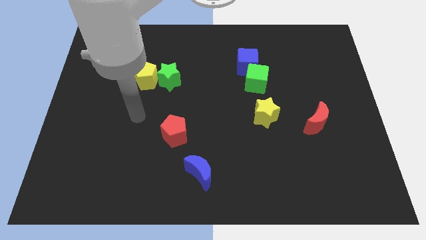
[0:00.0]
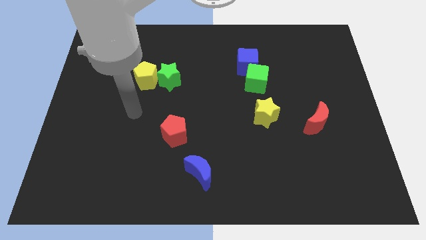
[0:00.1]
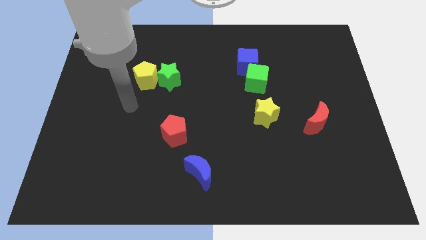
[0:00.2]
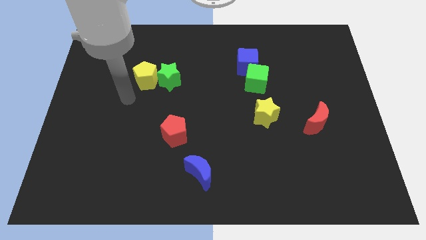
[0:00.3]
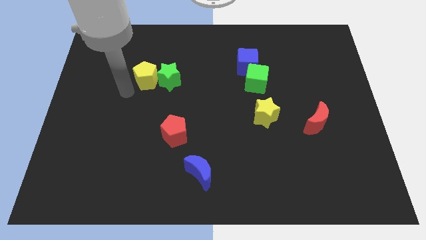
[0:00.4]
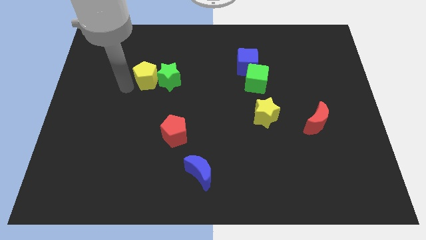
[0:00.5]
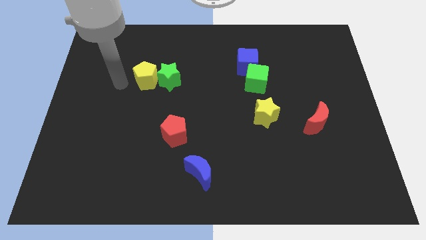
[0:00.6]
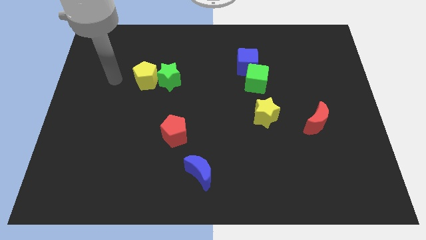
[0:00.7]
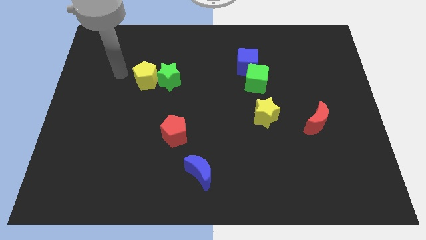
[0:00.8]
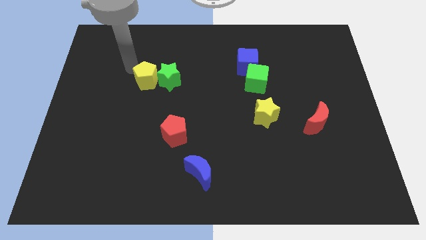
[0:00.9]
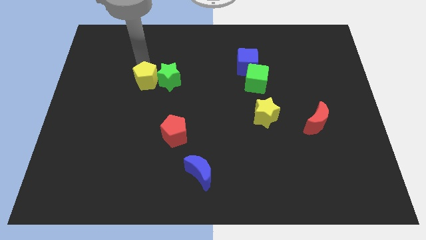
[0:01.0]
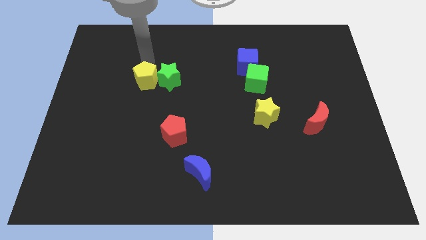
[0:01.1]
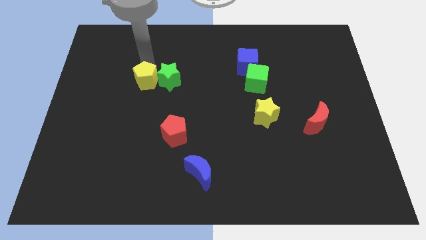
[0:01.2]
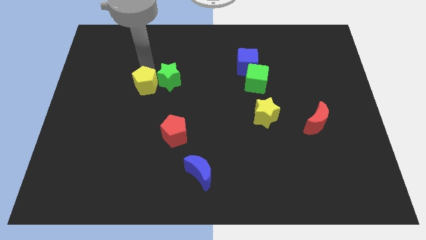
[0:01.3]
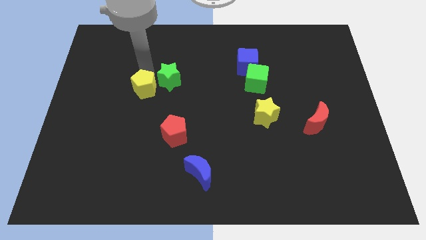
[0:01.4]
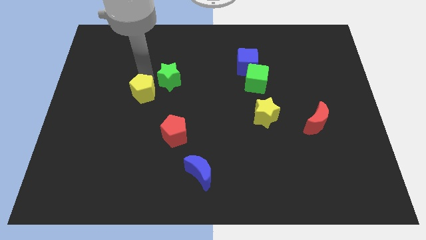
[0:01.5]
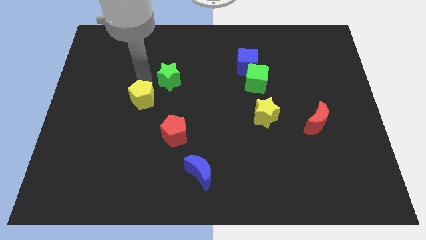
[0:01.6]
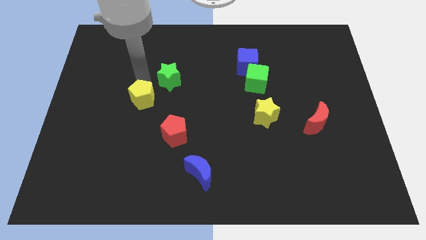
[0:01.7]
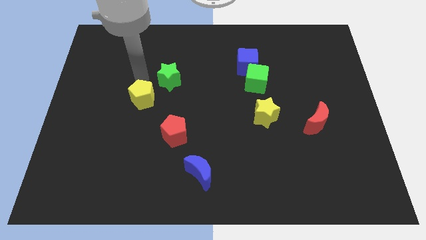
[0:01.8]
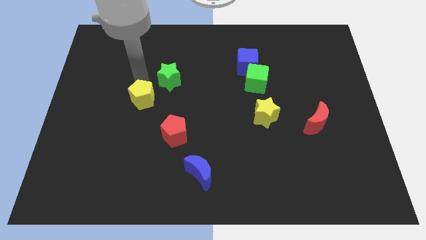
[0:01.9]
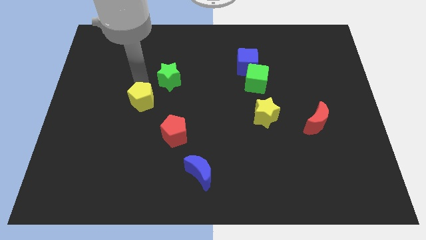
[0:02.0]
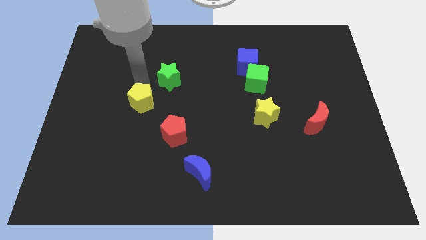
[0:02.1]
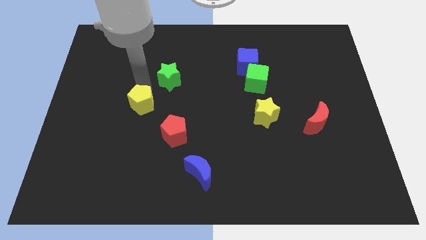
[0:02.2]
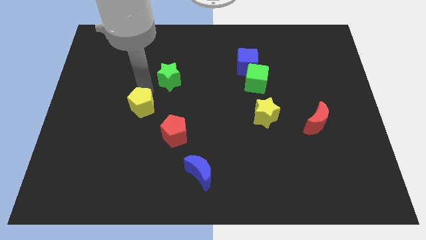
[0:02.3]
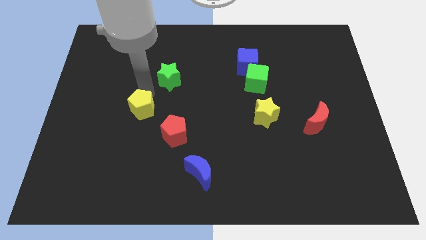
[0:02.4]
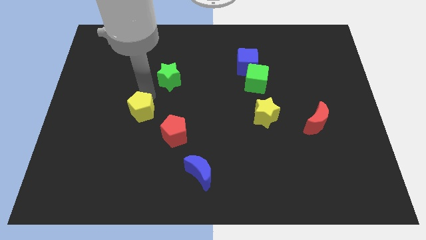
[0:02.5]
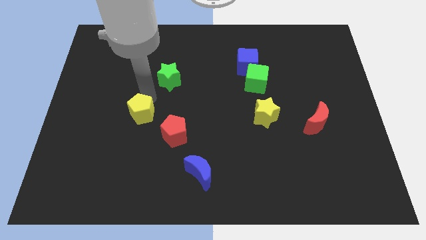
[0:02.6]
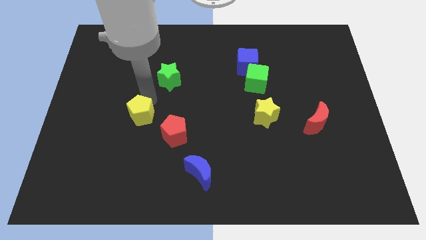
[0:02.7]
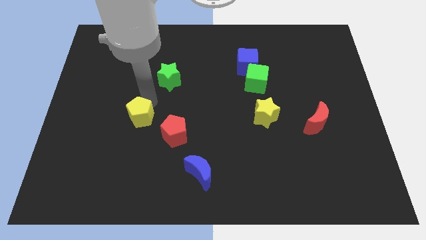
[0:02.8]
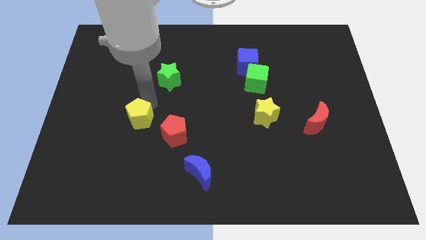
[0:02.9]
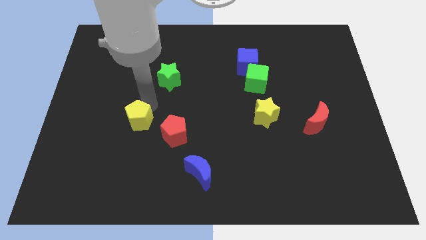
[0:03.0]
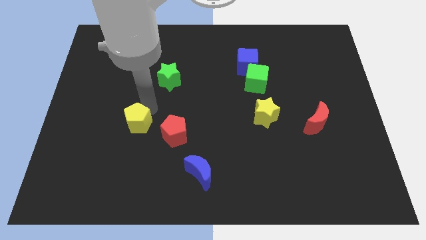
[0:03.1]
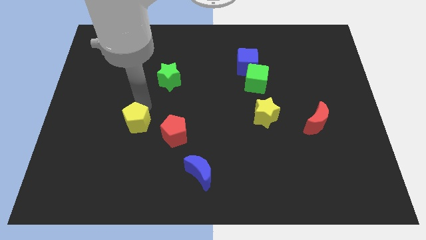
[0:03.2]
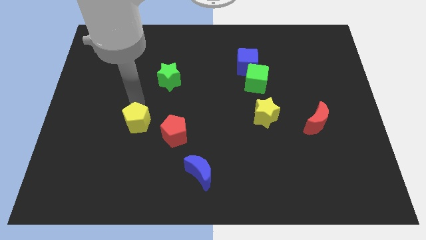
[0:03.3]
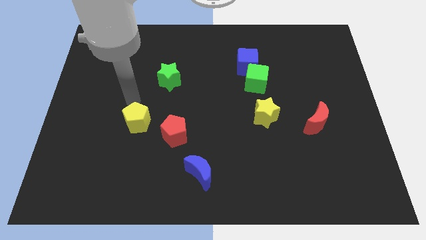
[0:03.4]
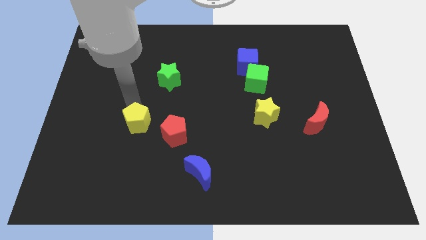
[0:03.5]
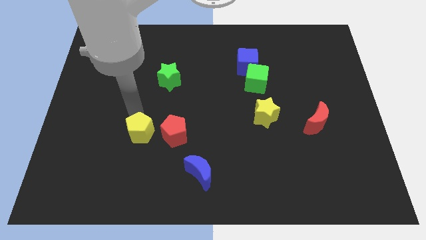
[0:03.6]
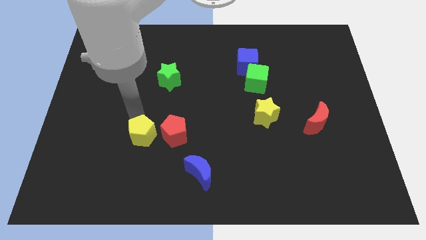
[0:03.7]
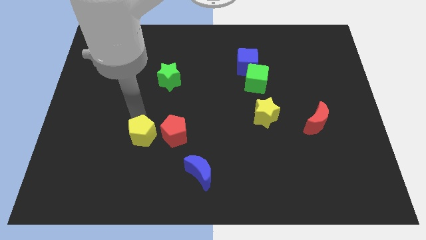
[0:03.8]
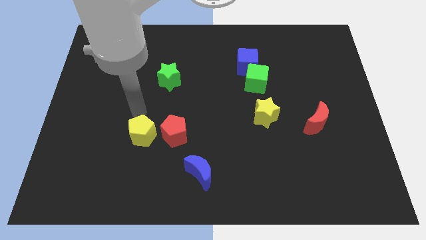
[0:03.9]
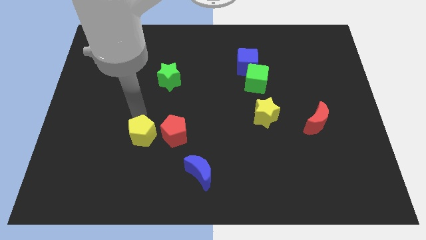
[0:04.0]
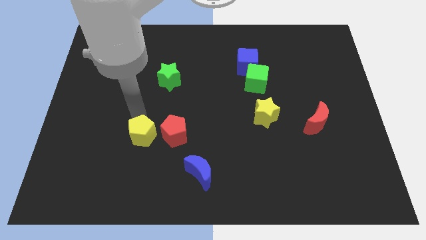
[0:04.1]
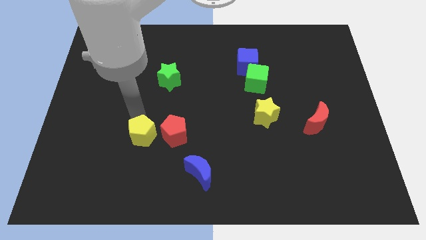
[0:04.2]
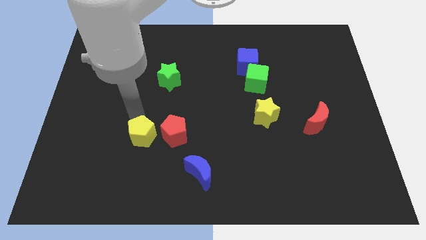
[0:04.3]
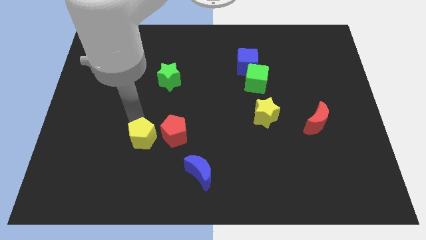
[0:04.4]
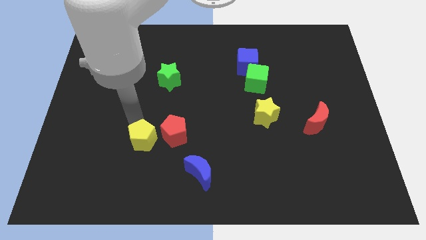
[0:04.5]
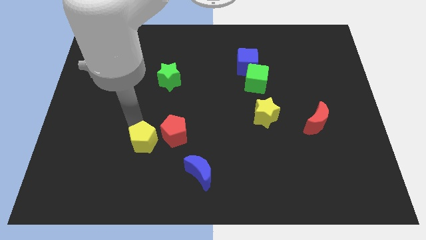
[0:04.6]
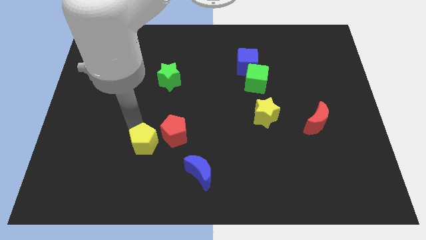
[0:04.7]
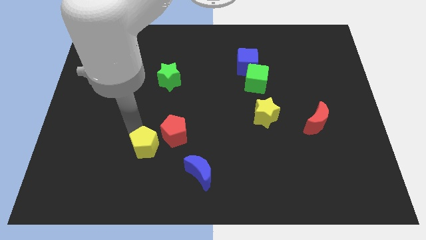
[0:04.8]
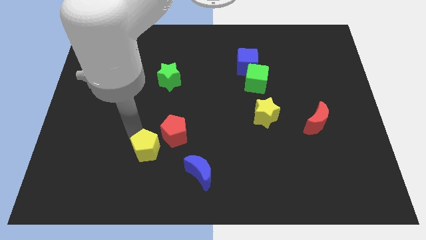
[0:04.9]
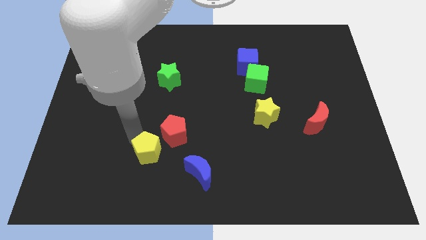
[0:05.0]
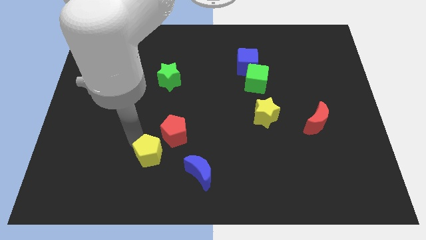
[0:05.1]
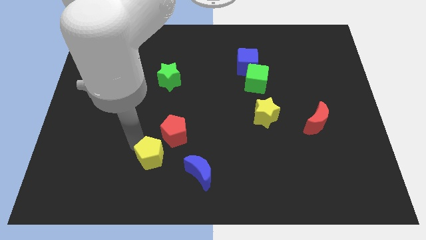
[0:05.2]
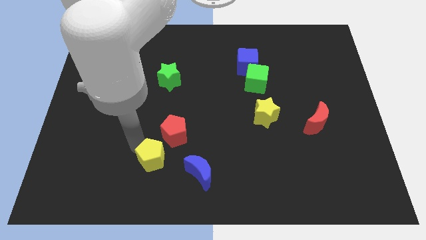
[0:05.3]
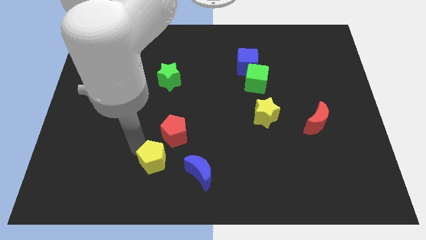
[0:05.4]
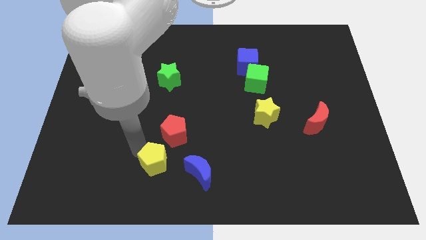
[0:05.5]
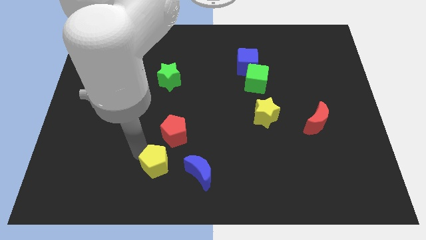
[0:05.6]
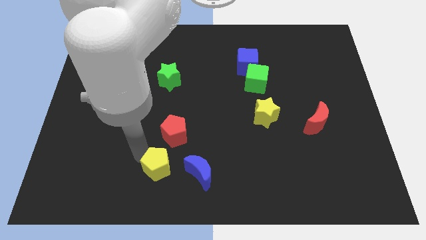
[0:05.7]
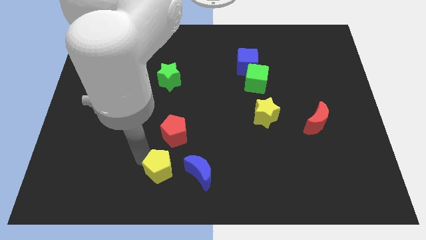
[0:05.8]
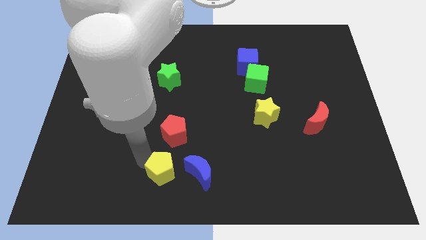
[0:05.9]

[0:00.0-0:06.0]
put the yellow pentagon to the bottom side

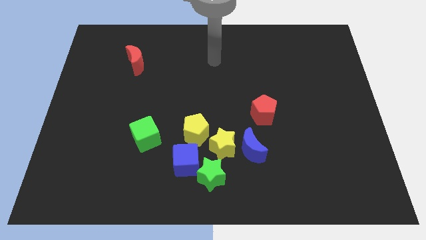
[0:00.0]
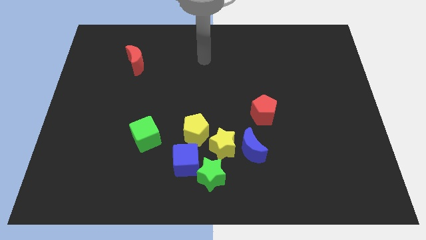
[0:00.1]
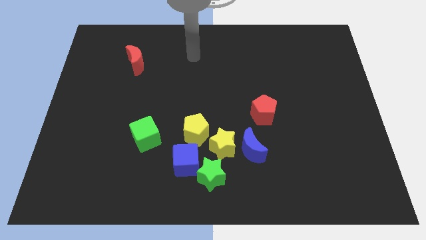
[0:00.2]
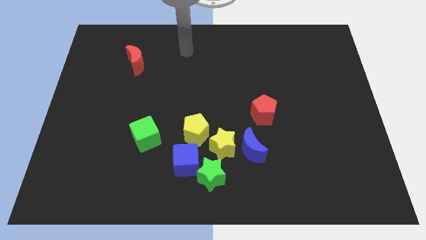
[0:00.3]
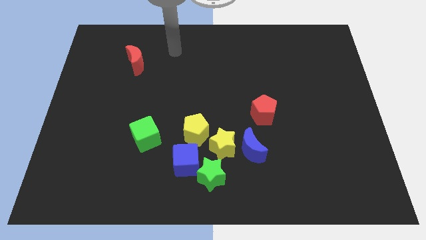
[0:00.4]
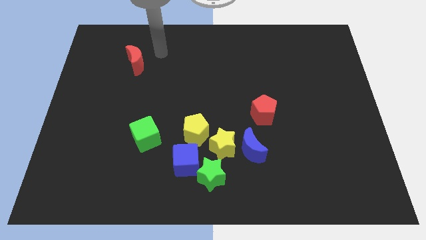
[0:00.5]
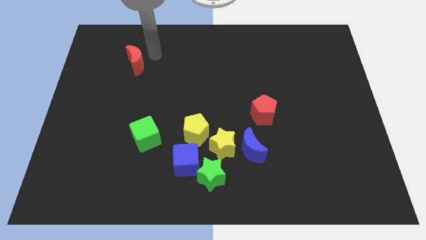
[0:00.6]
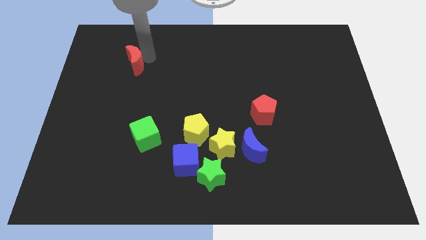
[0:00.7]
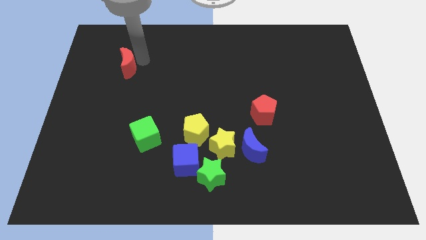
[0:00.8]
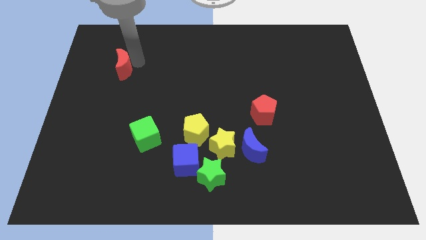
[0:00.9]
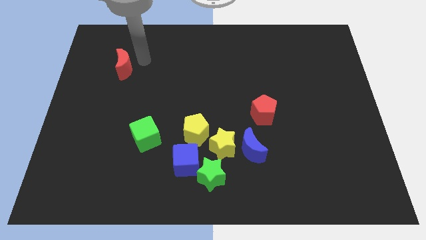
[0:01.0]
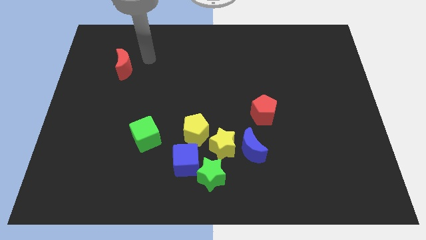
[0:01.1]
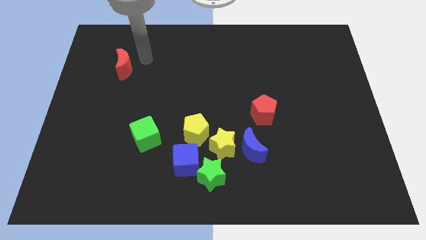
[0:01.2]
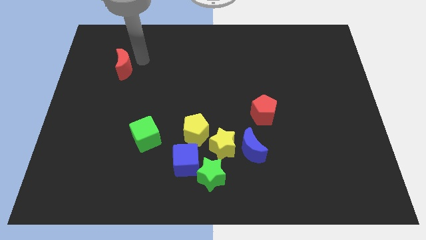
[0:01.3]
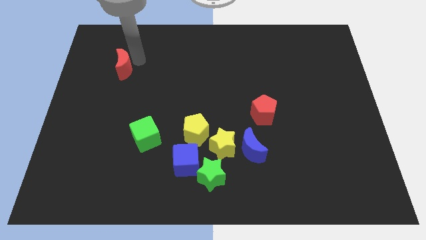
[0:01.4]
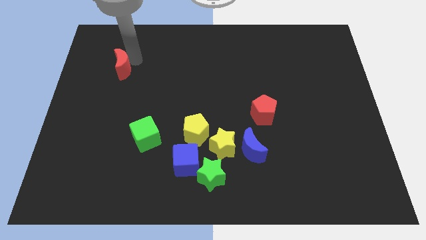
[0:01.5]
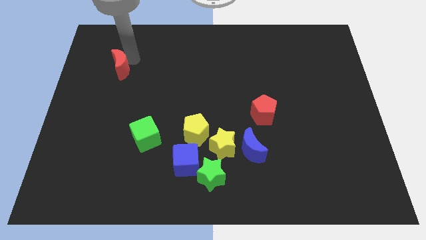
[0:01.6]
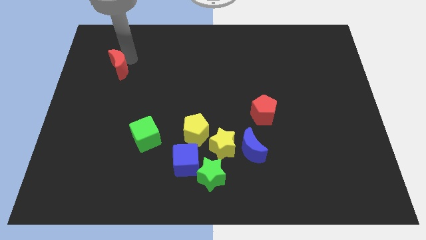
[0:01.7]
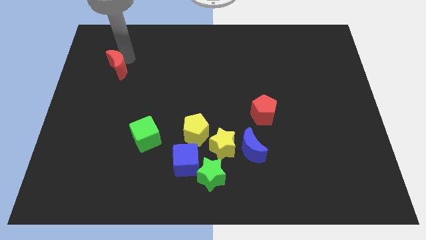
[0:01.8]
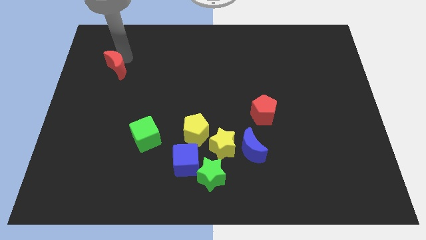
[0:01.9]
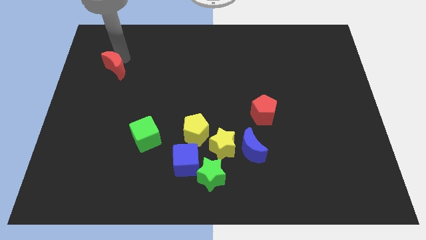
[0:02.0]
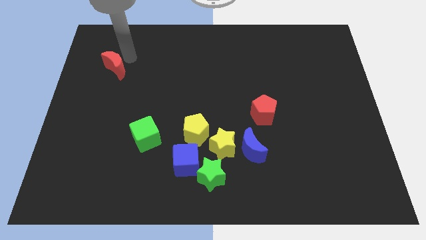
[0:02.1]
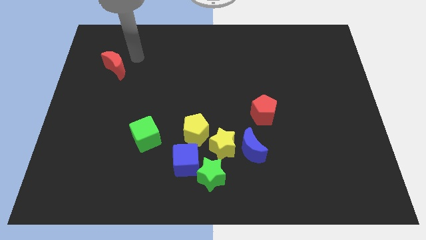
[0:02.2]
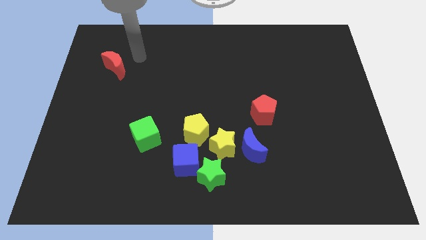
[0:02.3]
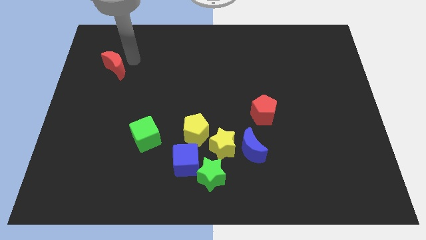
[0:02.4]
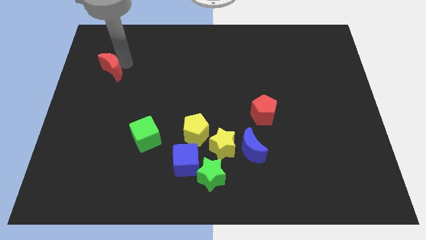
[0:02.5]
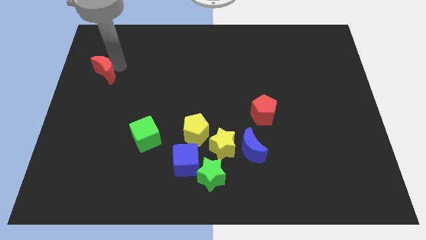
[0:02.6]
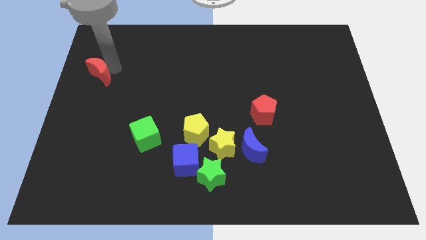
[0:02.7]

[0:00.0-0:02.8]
move the red moon to the center left
